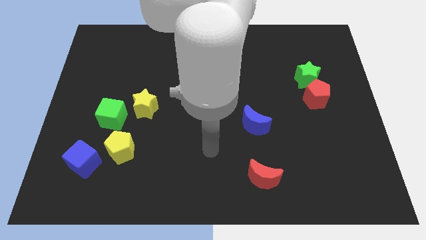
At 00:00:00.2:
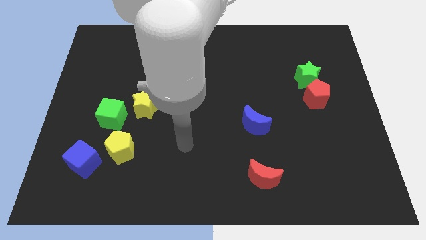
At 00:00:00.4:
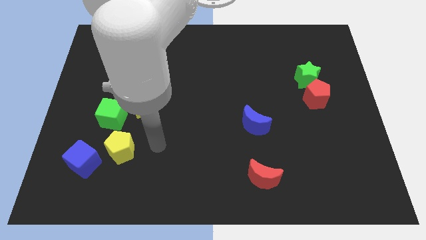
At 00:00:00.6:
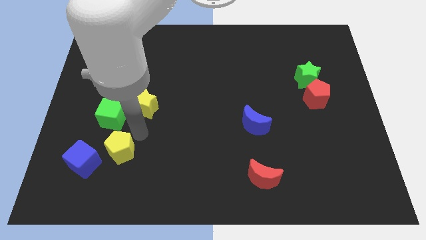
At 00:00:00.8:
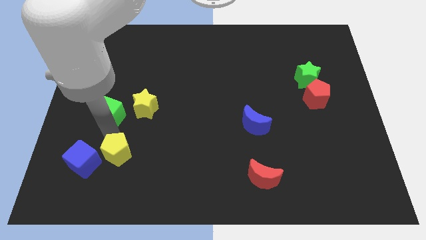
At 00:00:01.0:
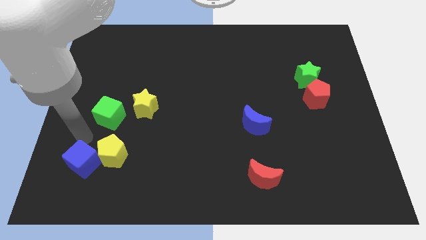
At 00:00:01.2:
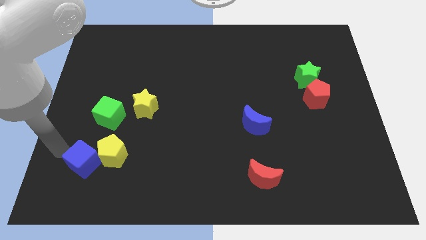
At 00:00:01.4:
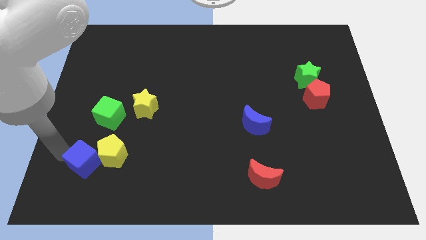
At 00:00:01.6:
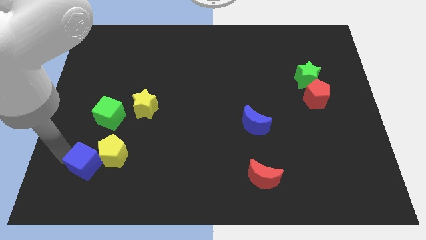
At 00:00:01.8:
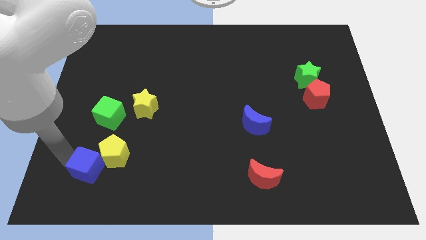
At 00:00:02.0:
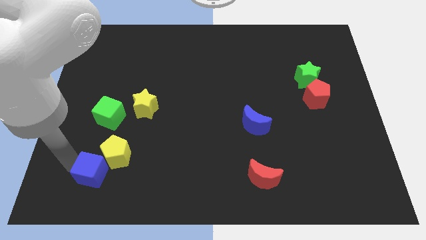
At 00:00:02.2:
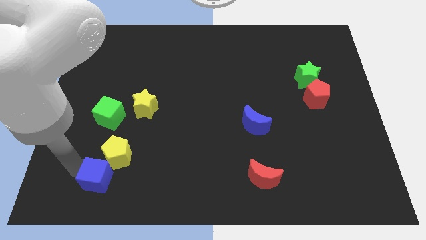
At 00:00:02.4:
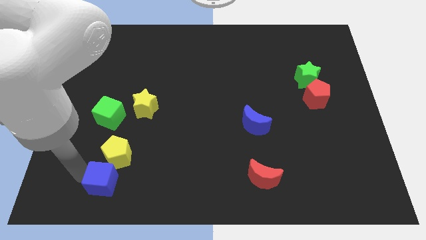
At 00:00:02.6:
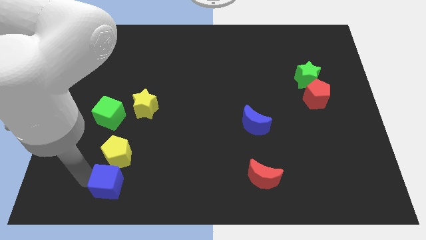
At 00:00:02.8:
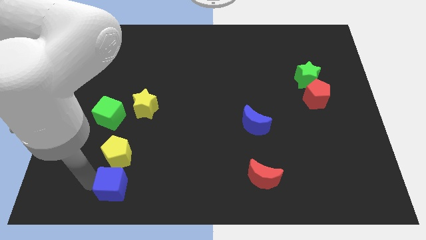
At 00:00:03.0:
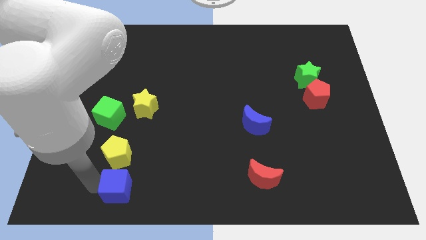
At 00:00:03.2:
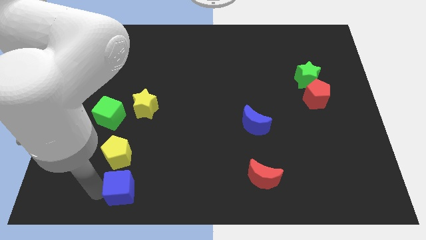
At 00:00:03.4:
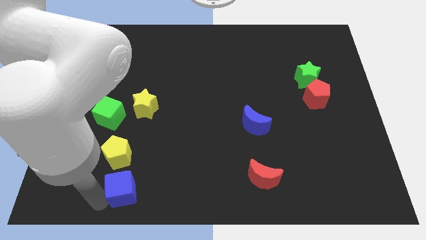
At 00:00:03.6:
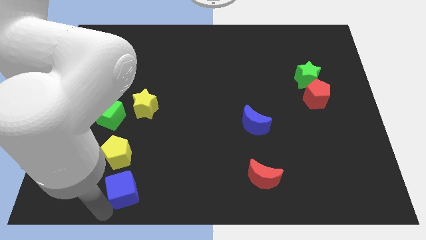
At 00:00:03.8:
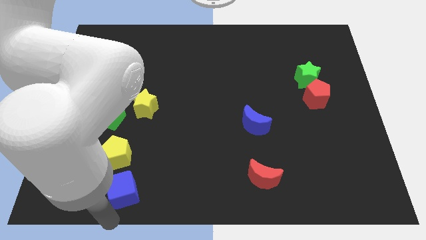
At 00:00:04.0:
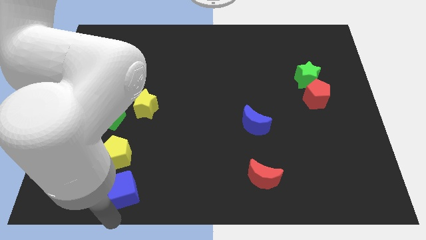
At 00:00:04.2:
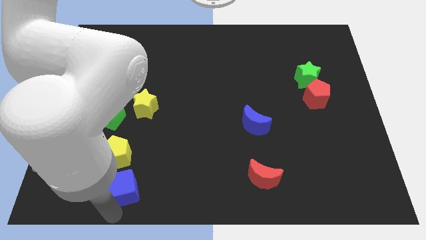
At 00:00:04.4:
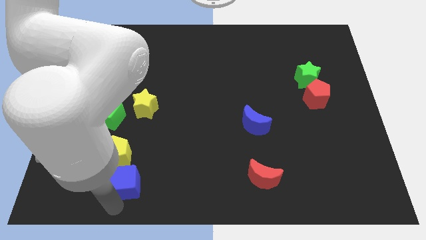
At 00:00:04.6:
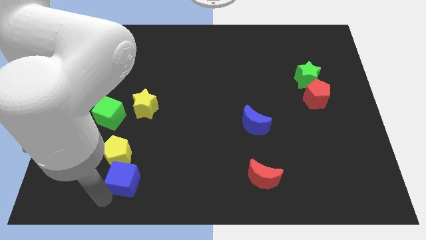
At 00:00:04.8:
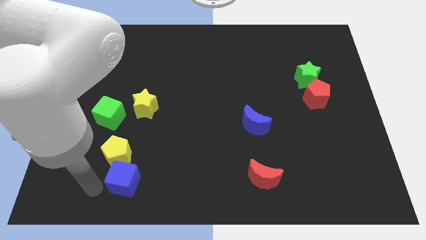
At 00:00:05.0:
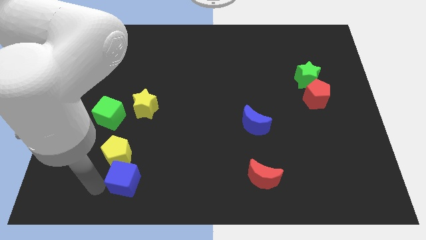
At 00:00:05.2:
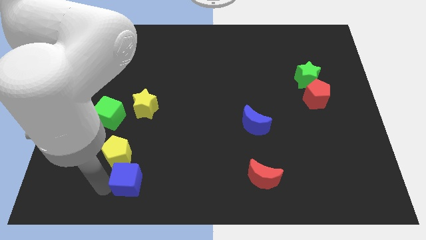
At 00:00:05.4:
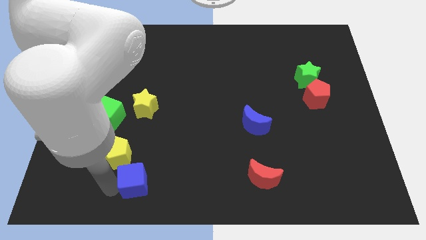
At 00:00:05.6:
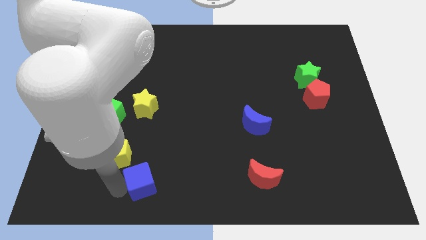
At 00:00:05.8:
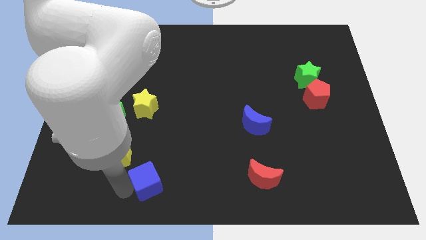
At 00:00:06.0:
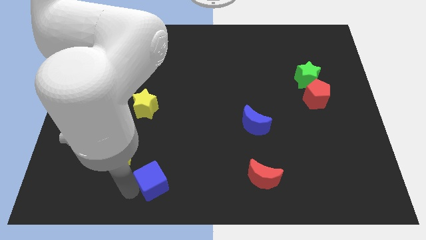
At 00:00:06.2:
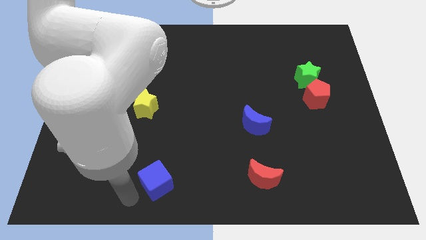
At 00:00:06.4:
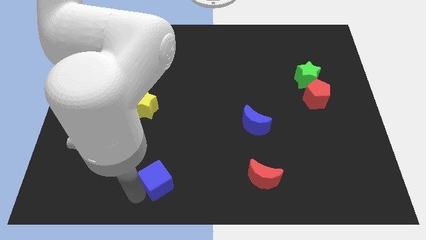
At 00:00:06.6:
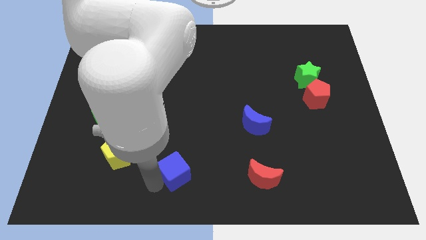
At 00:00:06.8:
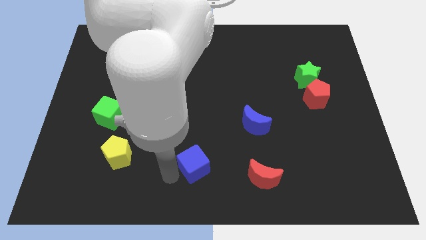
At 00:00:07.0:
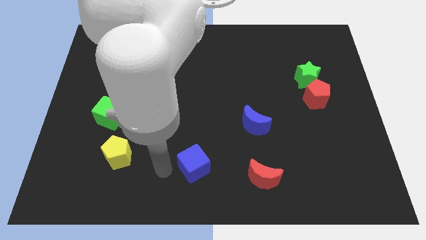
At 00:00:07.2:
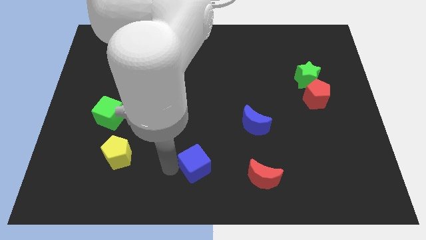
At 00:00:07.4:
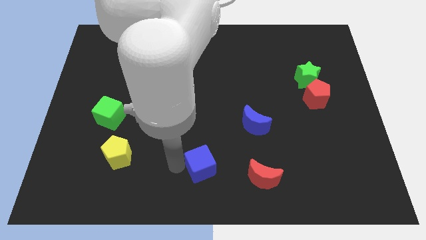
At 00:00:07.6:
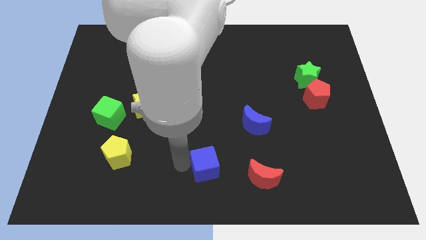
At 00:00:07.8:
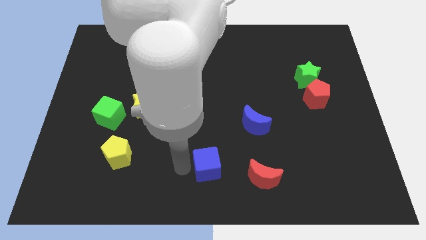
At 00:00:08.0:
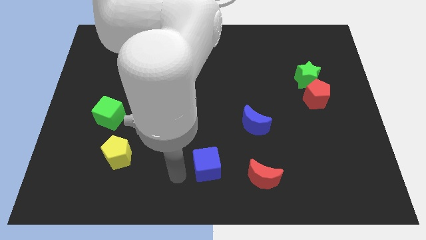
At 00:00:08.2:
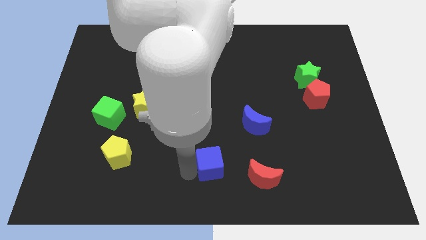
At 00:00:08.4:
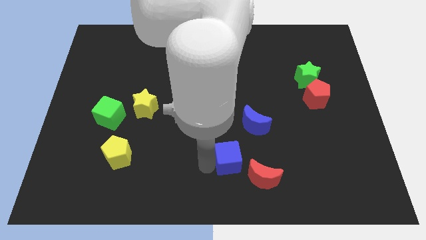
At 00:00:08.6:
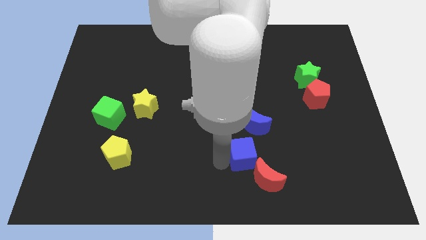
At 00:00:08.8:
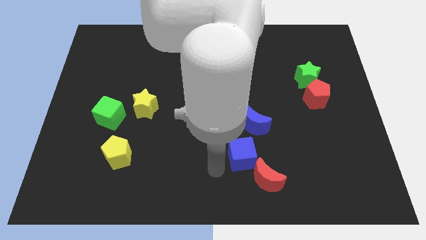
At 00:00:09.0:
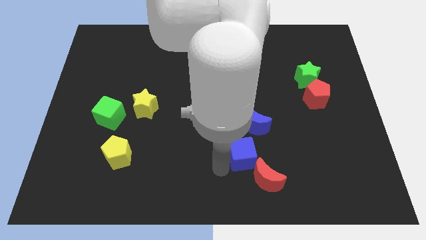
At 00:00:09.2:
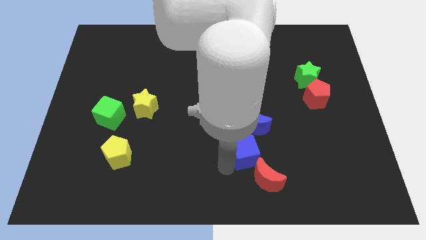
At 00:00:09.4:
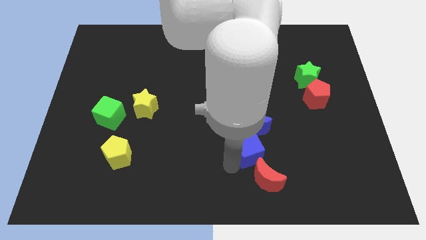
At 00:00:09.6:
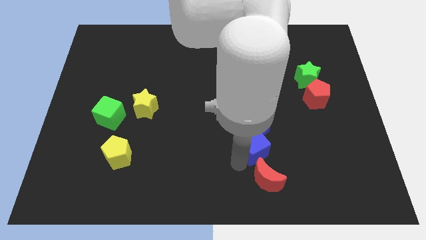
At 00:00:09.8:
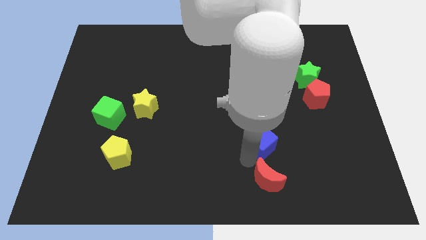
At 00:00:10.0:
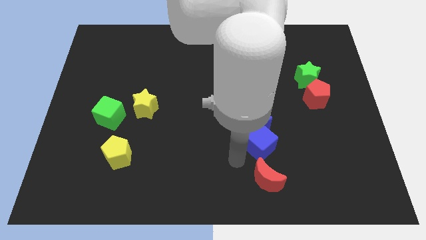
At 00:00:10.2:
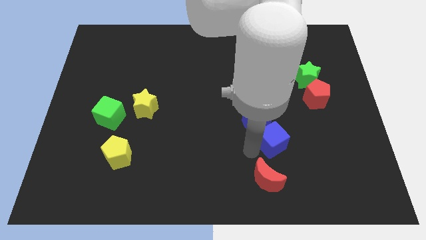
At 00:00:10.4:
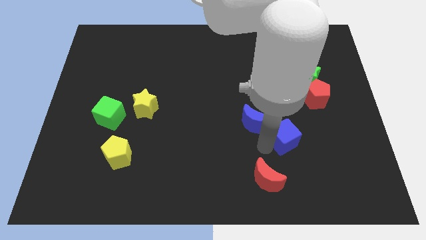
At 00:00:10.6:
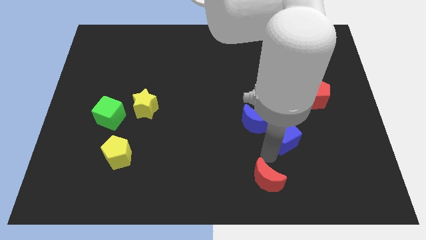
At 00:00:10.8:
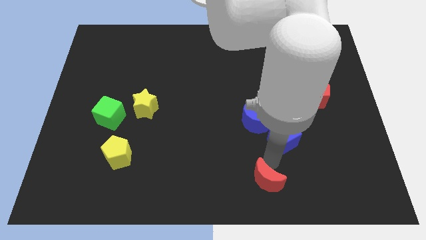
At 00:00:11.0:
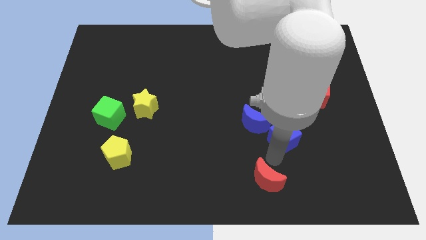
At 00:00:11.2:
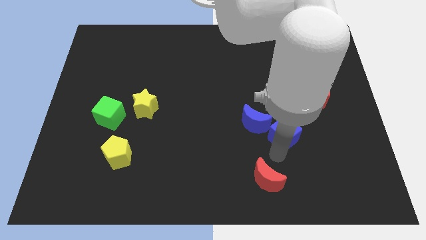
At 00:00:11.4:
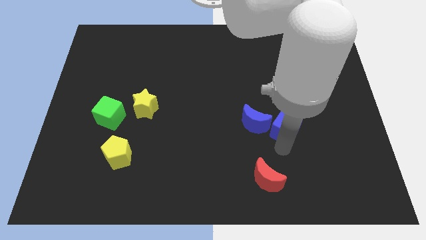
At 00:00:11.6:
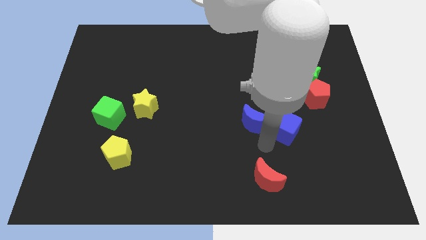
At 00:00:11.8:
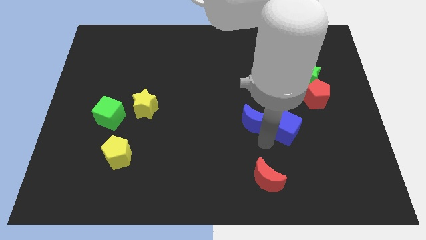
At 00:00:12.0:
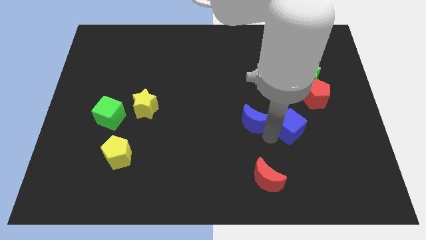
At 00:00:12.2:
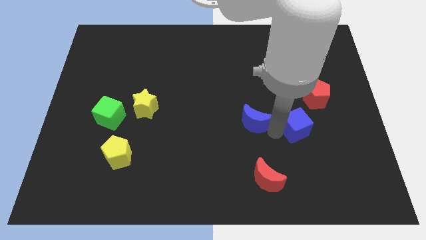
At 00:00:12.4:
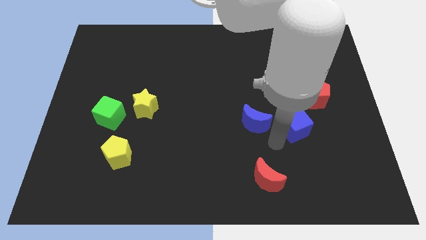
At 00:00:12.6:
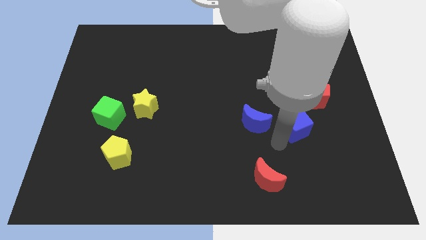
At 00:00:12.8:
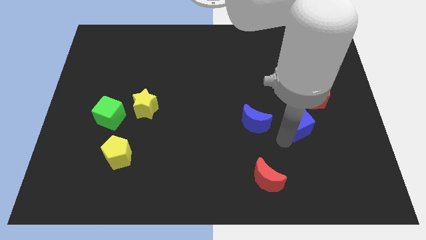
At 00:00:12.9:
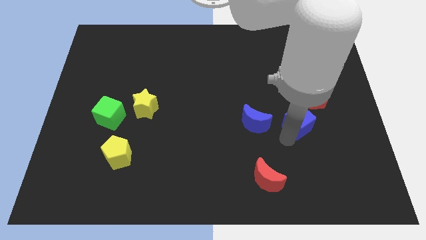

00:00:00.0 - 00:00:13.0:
push the blue cube below the green star

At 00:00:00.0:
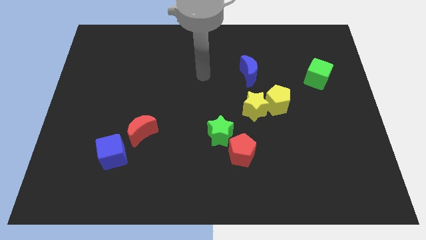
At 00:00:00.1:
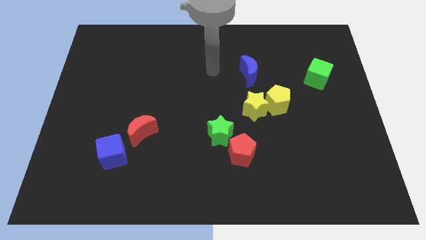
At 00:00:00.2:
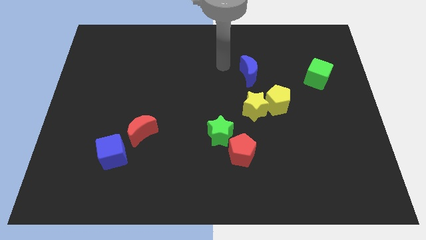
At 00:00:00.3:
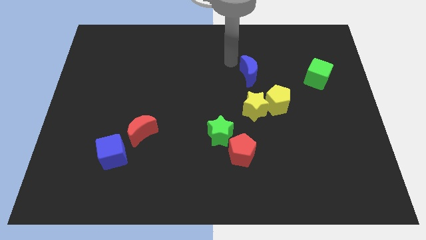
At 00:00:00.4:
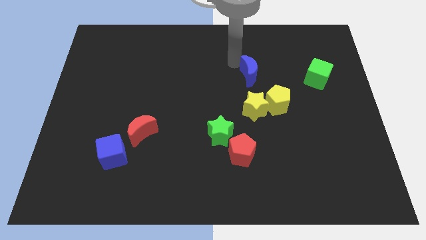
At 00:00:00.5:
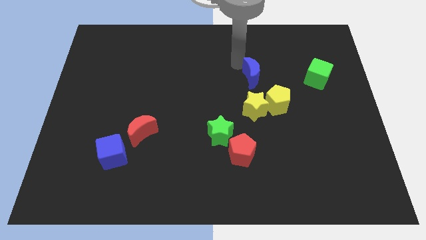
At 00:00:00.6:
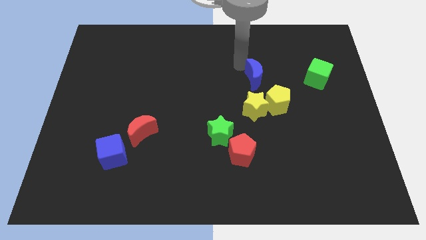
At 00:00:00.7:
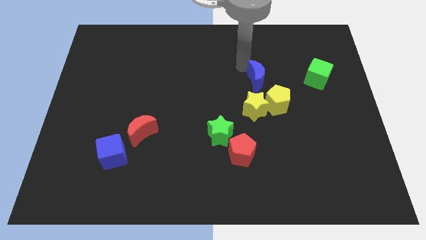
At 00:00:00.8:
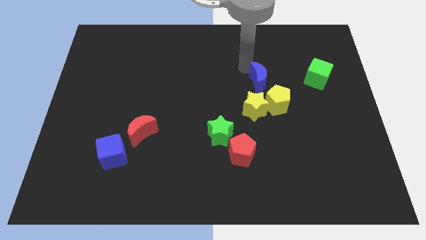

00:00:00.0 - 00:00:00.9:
move the blue moon to the top right side of the yellow star

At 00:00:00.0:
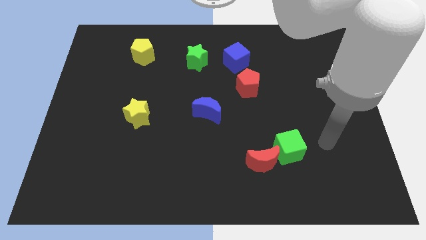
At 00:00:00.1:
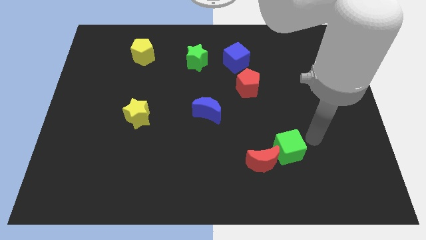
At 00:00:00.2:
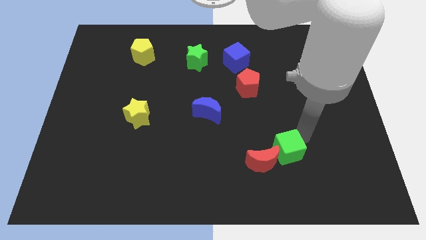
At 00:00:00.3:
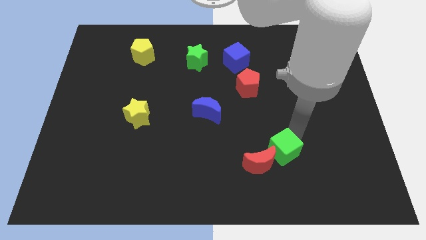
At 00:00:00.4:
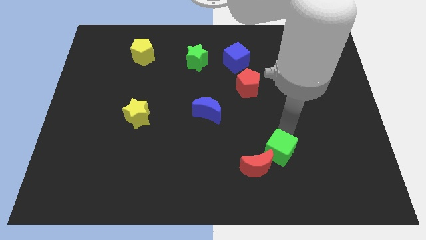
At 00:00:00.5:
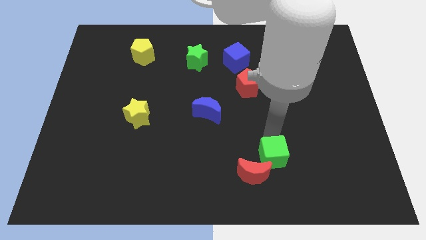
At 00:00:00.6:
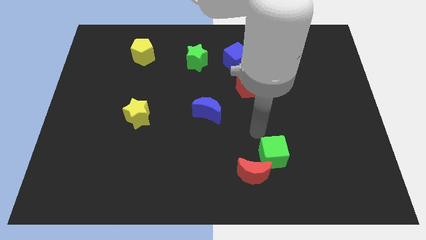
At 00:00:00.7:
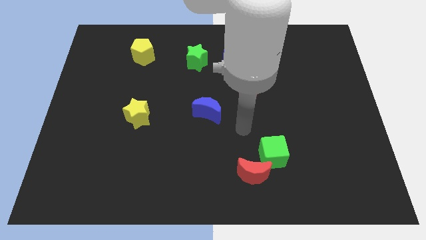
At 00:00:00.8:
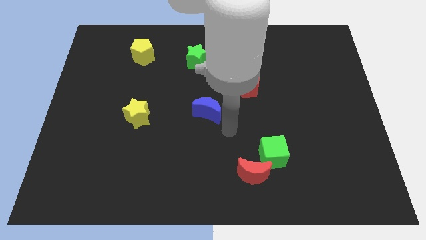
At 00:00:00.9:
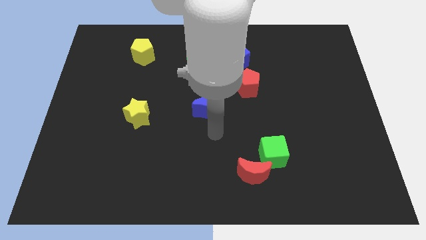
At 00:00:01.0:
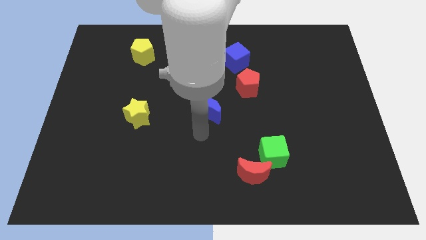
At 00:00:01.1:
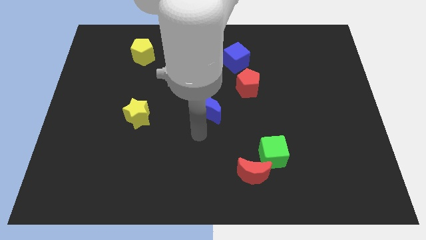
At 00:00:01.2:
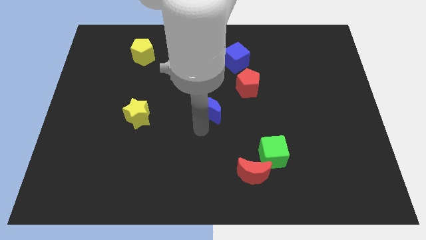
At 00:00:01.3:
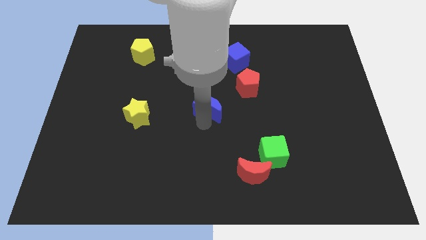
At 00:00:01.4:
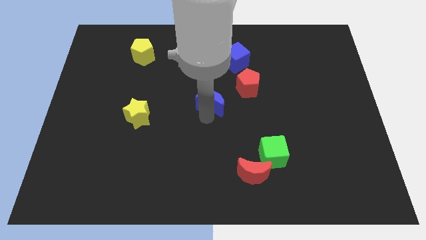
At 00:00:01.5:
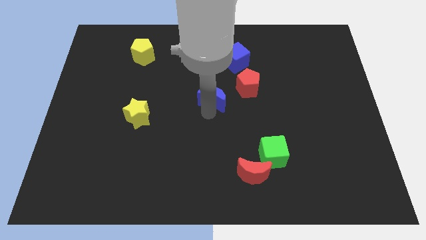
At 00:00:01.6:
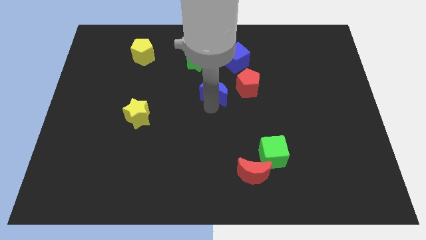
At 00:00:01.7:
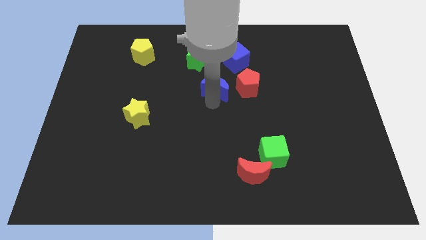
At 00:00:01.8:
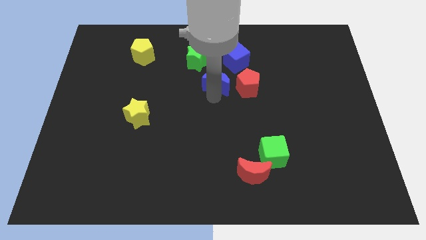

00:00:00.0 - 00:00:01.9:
push the blue moon to the top left of the red pentagon
